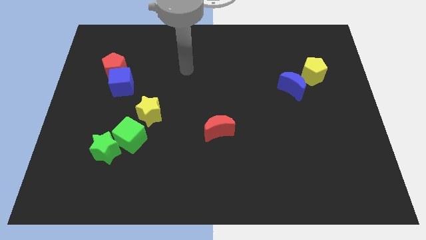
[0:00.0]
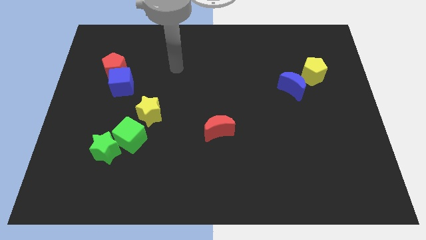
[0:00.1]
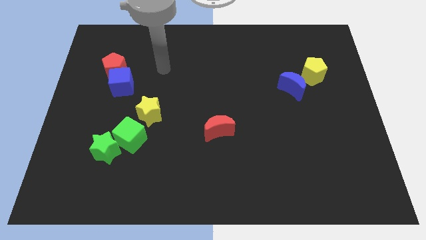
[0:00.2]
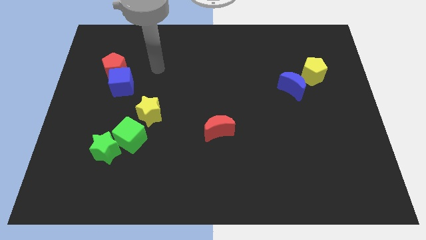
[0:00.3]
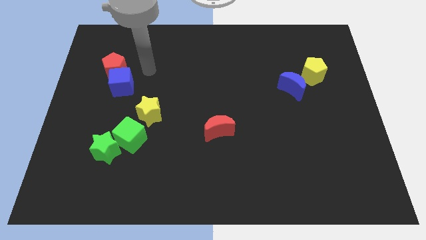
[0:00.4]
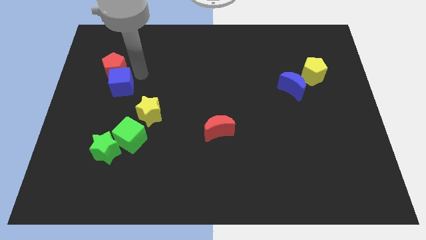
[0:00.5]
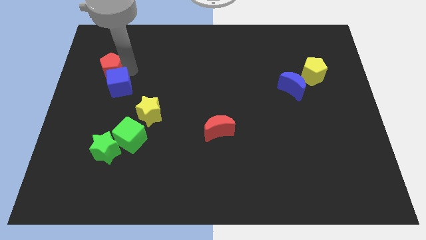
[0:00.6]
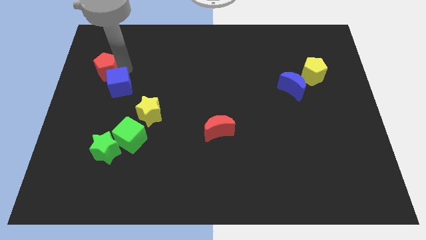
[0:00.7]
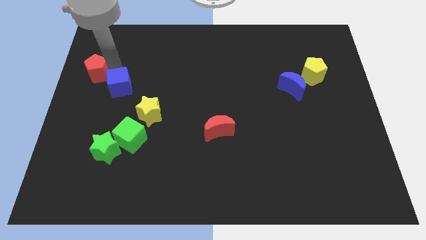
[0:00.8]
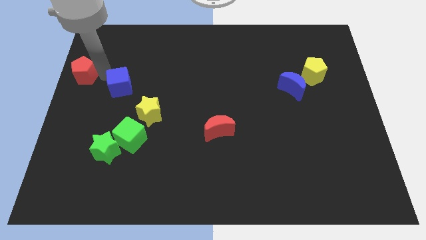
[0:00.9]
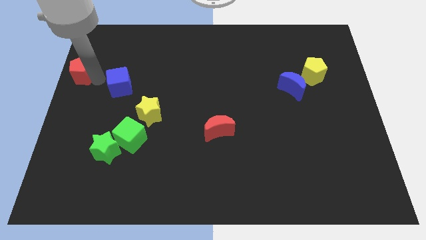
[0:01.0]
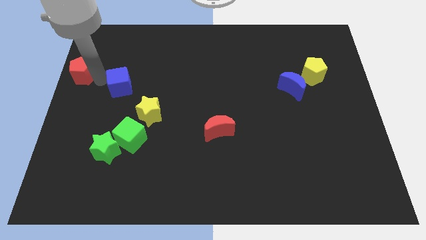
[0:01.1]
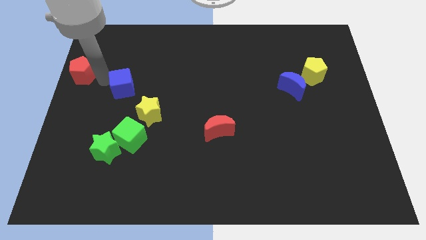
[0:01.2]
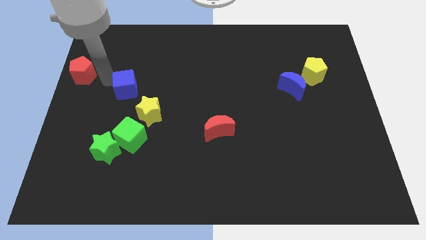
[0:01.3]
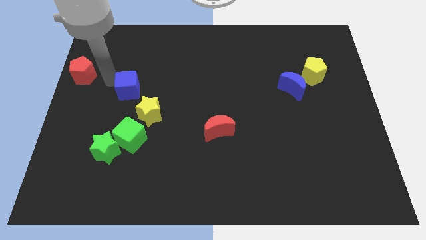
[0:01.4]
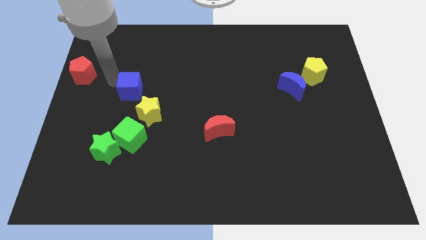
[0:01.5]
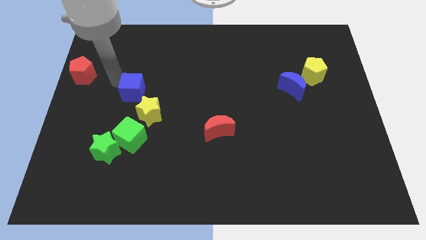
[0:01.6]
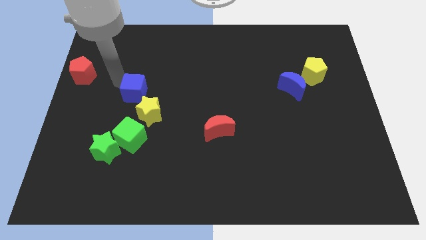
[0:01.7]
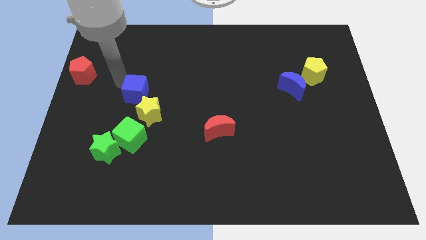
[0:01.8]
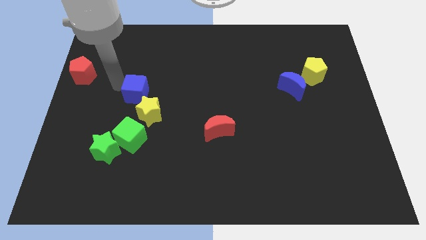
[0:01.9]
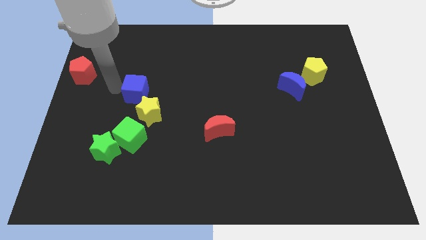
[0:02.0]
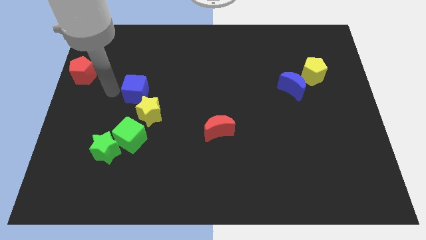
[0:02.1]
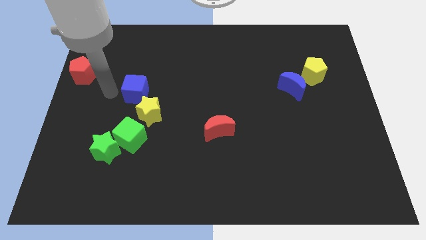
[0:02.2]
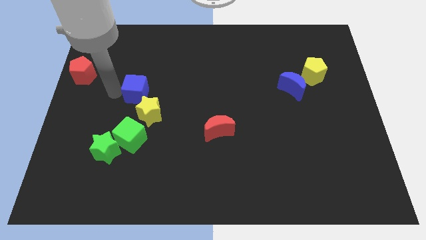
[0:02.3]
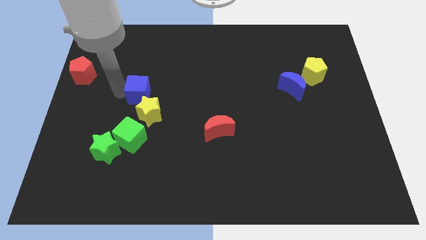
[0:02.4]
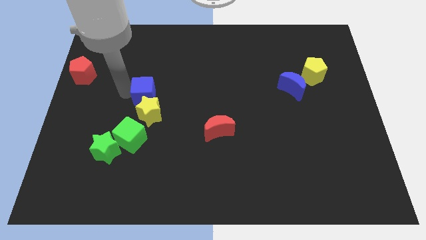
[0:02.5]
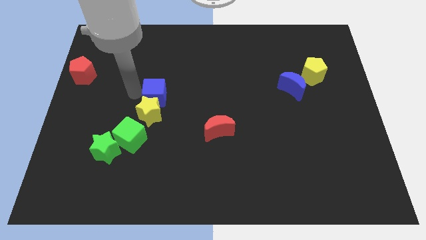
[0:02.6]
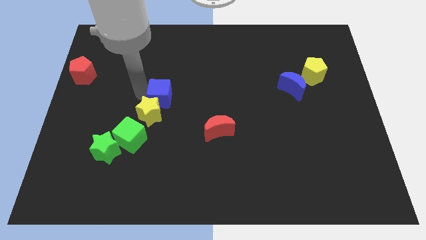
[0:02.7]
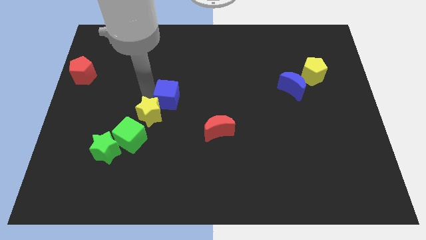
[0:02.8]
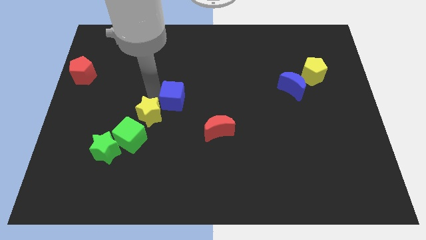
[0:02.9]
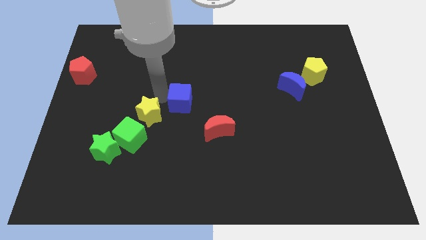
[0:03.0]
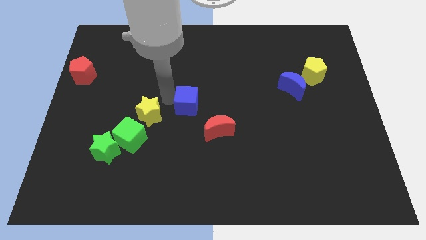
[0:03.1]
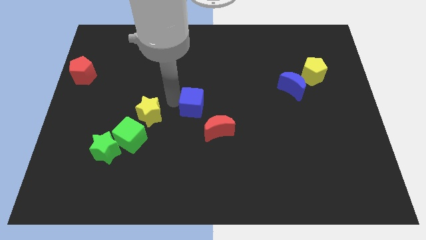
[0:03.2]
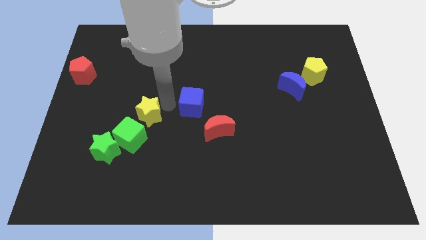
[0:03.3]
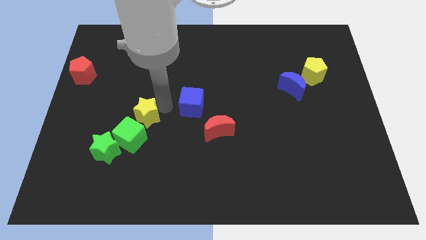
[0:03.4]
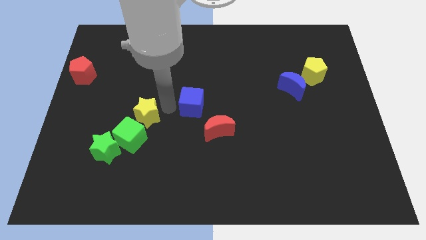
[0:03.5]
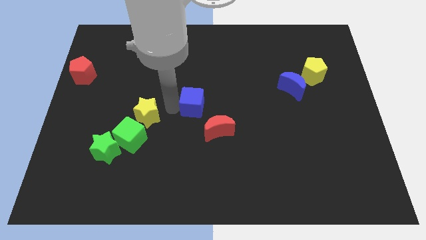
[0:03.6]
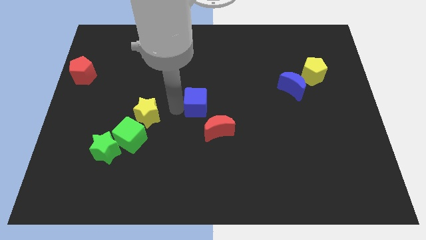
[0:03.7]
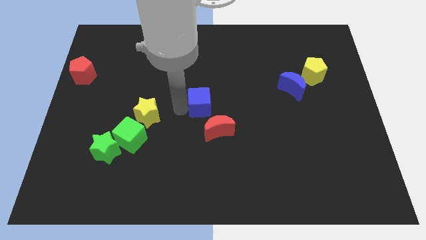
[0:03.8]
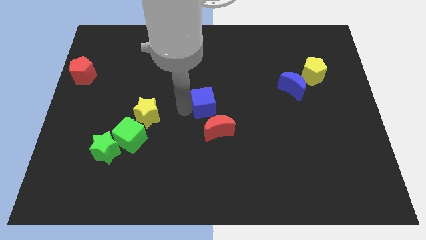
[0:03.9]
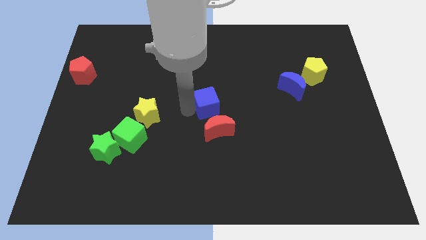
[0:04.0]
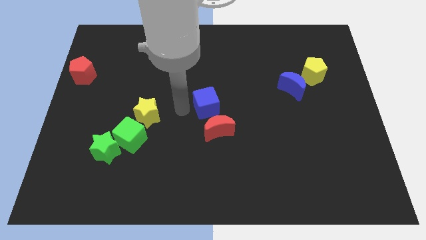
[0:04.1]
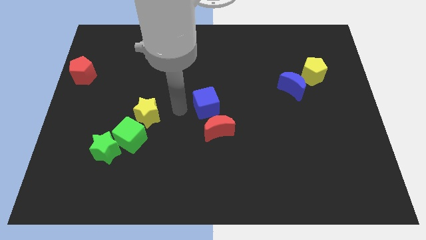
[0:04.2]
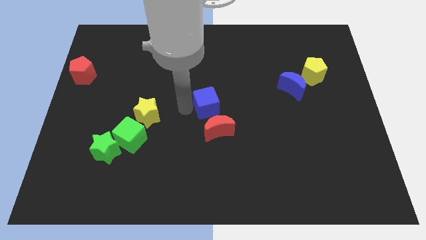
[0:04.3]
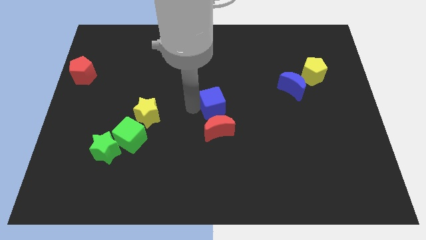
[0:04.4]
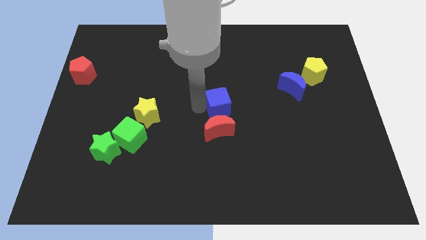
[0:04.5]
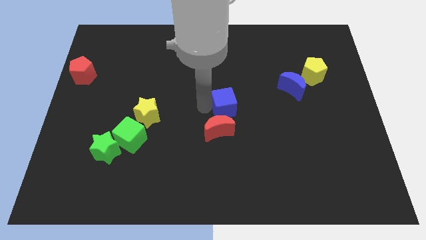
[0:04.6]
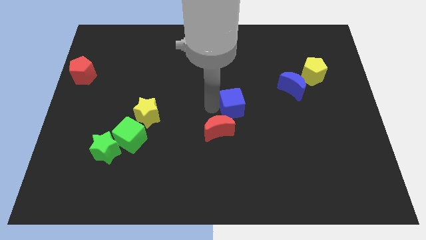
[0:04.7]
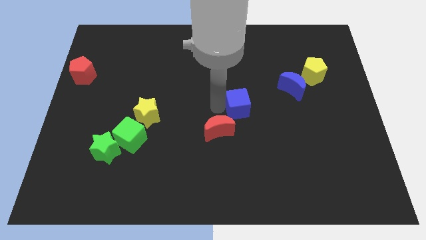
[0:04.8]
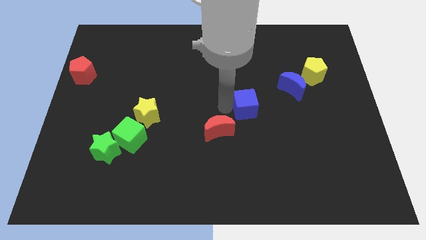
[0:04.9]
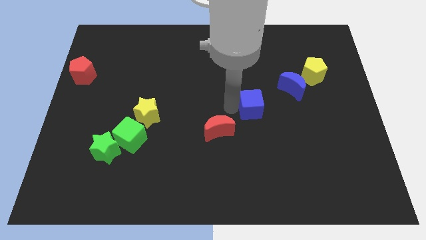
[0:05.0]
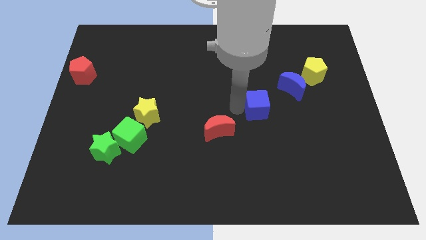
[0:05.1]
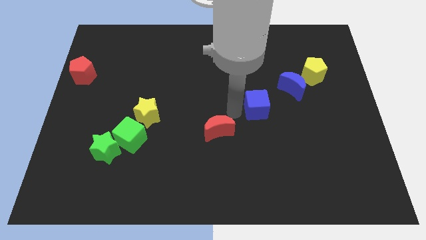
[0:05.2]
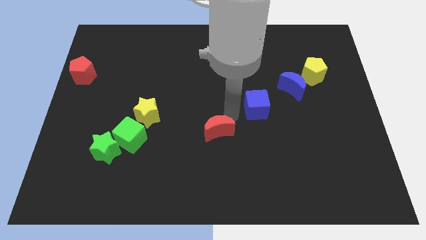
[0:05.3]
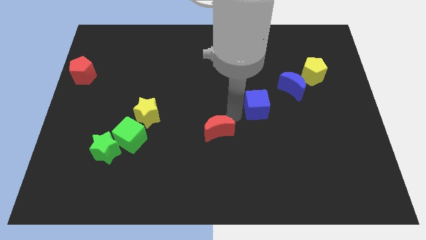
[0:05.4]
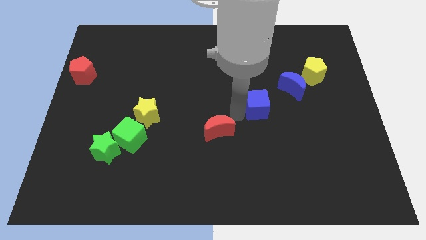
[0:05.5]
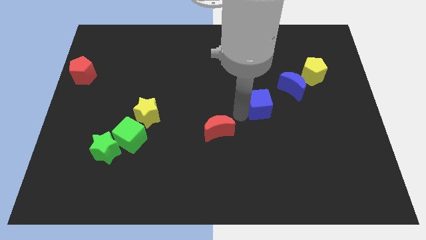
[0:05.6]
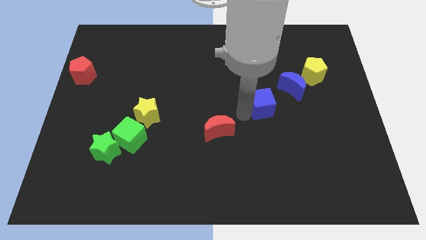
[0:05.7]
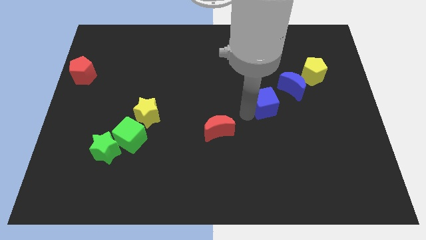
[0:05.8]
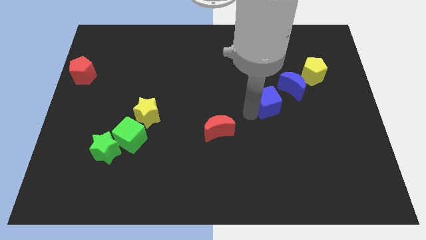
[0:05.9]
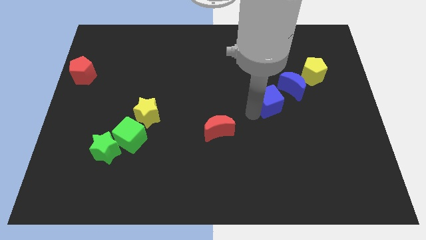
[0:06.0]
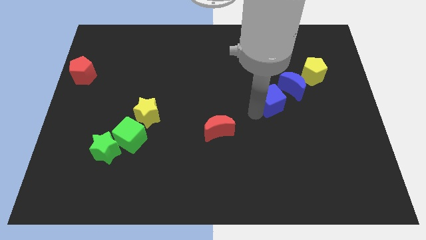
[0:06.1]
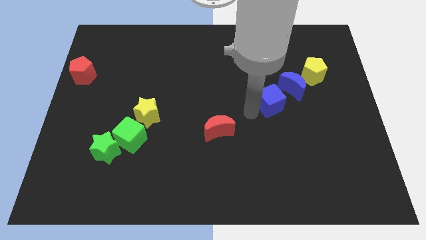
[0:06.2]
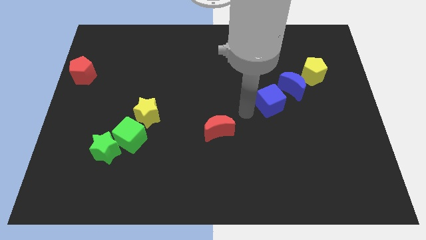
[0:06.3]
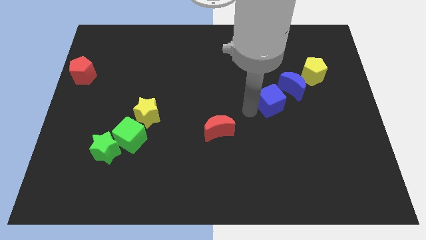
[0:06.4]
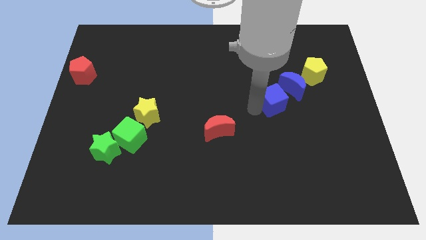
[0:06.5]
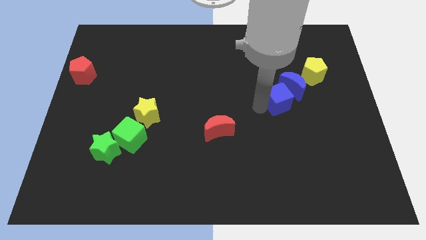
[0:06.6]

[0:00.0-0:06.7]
put the blue cube to the bottom left side of the yellow pentagon

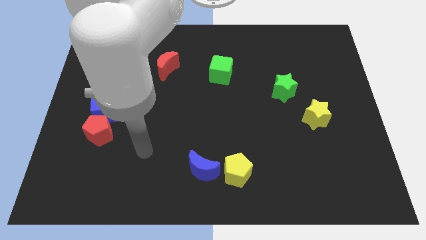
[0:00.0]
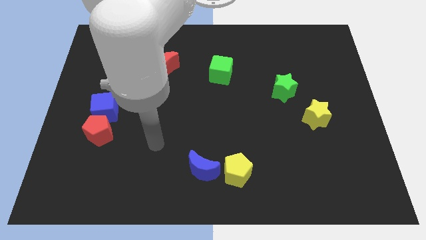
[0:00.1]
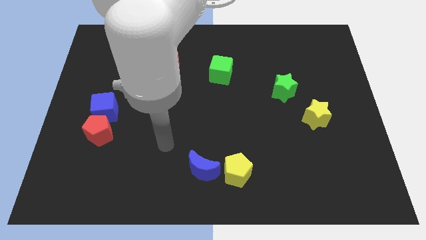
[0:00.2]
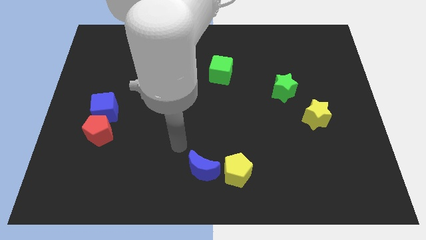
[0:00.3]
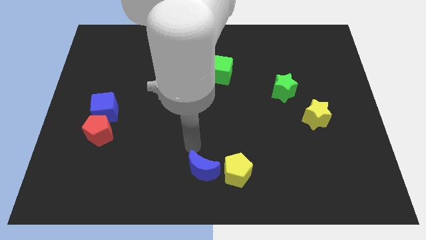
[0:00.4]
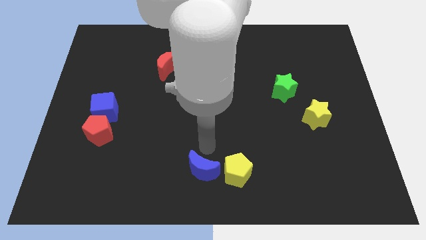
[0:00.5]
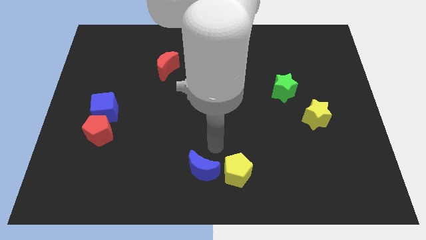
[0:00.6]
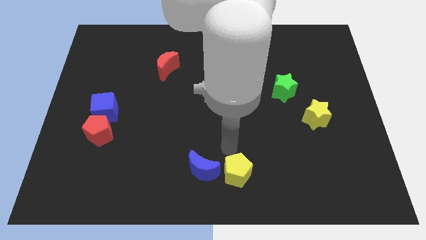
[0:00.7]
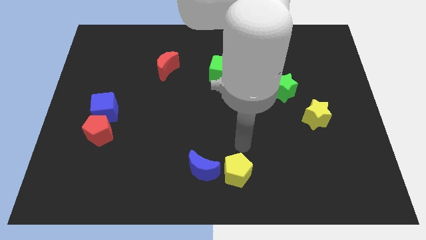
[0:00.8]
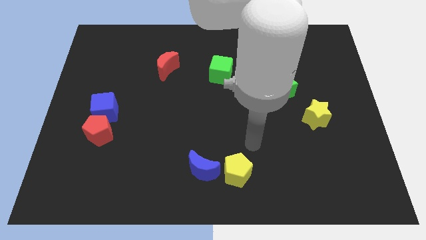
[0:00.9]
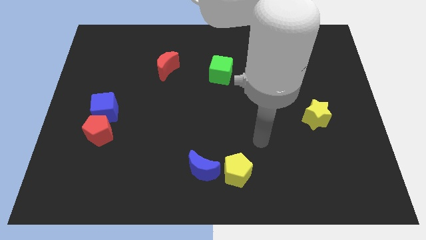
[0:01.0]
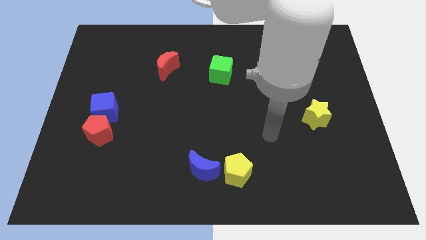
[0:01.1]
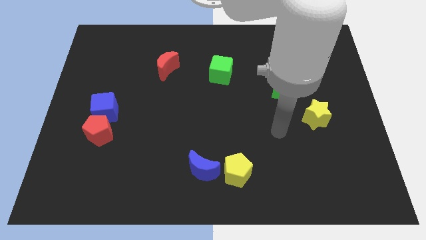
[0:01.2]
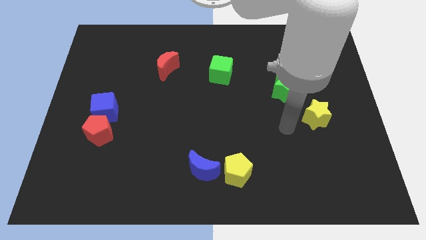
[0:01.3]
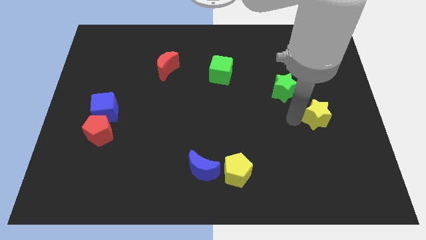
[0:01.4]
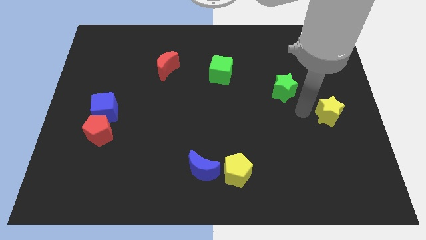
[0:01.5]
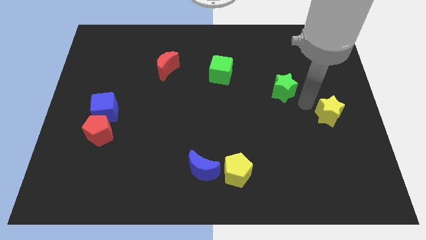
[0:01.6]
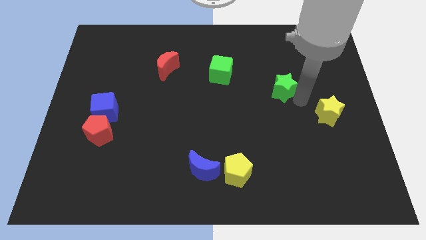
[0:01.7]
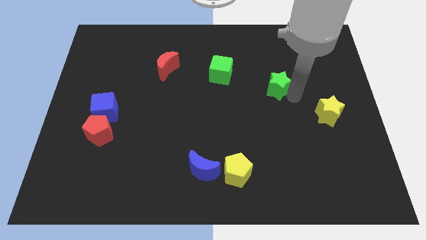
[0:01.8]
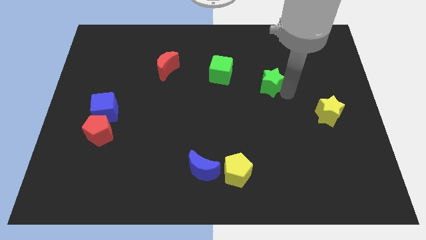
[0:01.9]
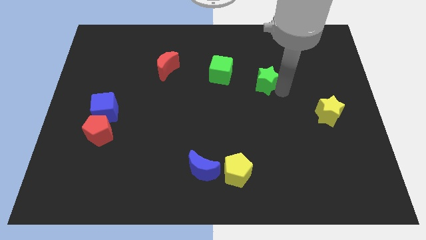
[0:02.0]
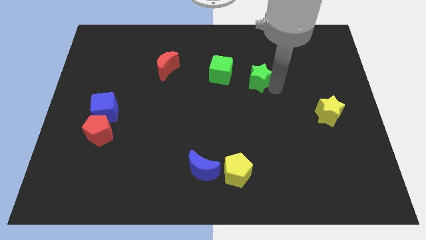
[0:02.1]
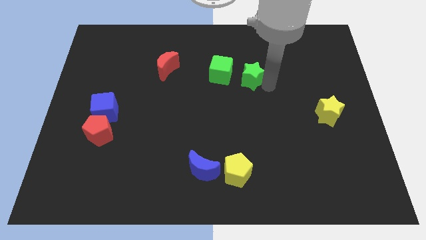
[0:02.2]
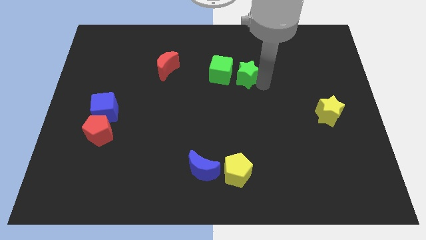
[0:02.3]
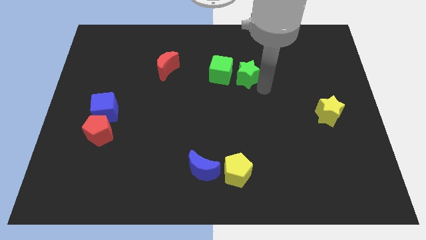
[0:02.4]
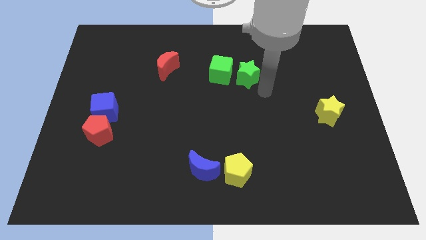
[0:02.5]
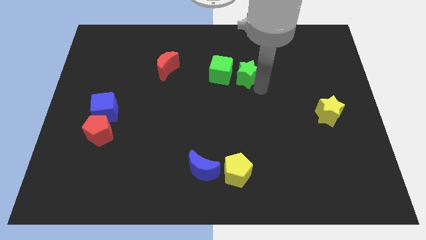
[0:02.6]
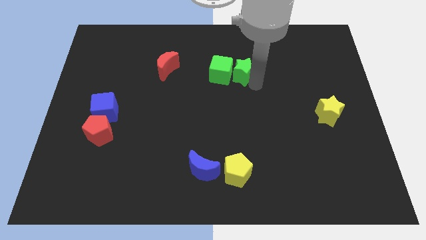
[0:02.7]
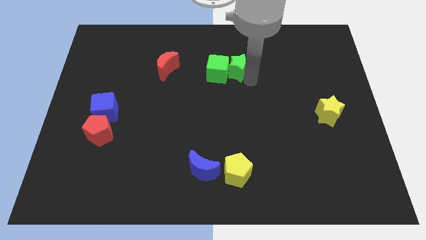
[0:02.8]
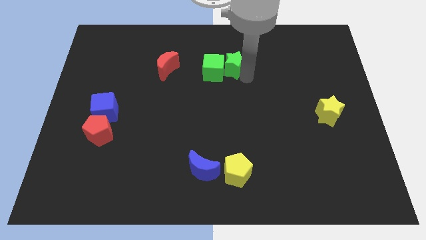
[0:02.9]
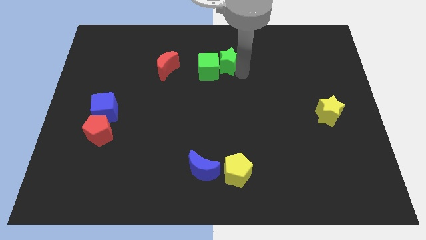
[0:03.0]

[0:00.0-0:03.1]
put the green star to the right of the red moon
